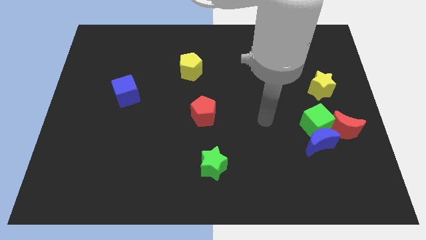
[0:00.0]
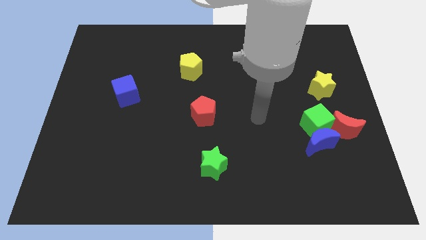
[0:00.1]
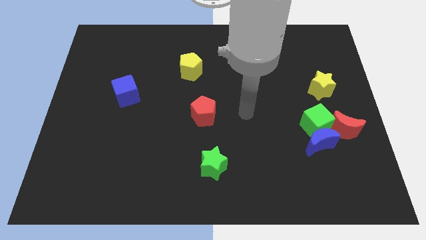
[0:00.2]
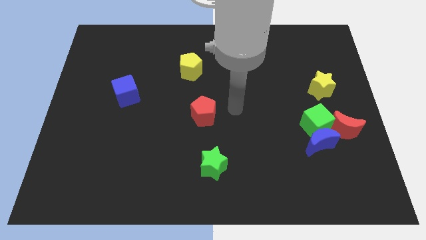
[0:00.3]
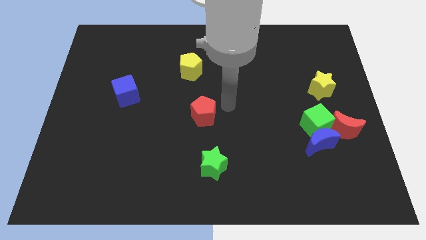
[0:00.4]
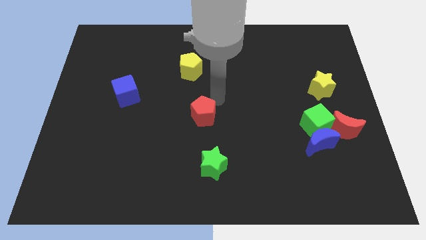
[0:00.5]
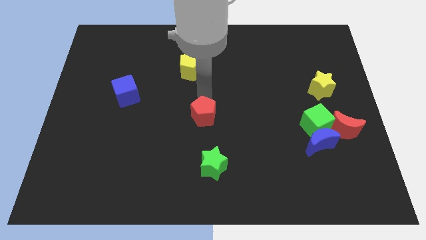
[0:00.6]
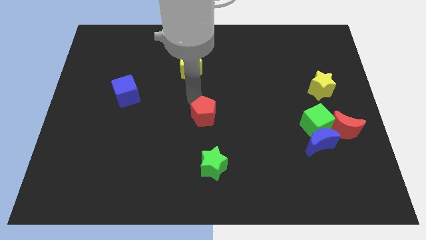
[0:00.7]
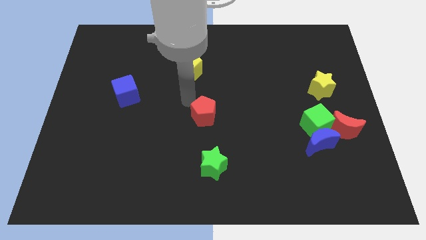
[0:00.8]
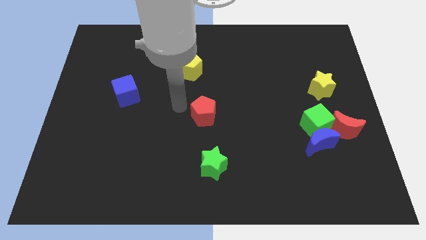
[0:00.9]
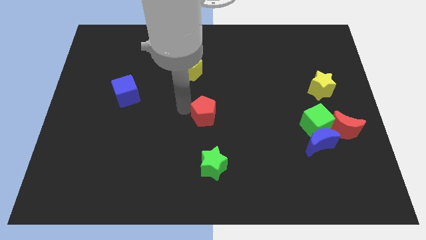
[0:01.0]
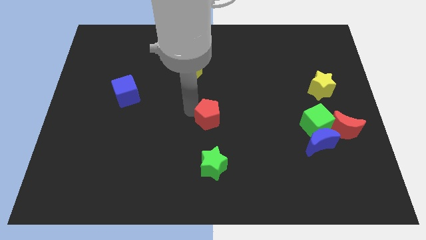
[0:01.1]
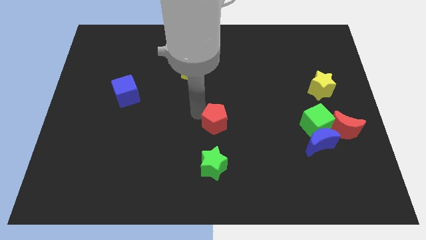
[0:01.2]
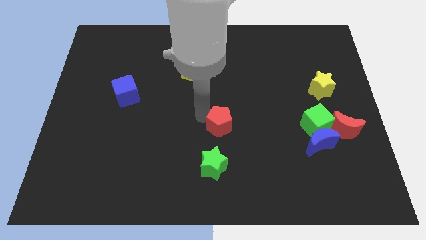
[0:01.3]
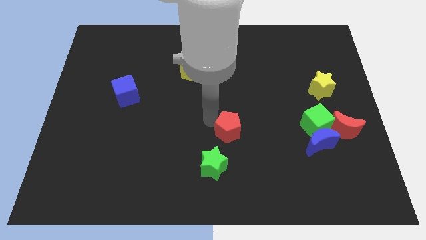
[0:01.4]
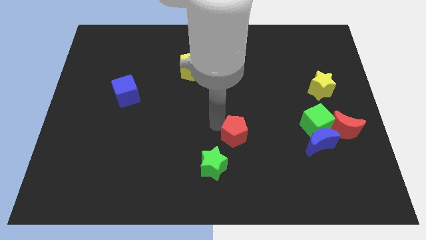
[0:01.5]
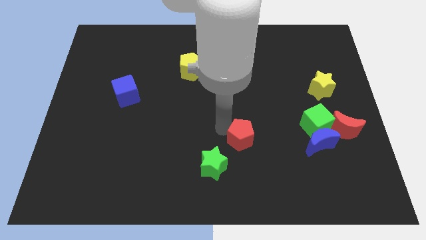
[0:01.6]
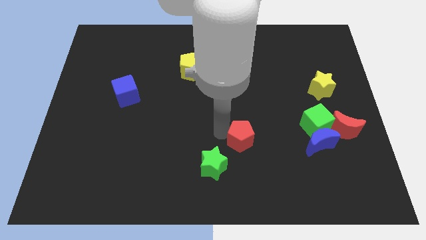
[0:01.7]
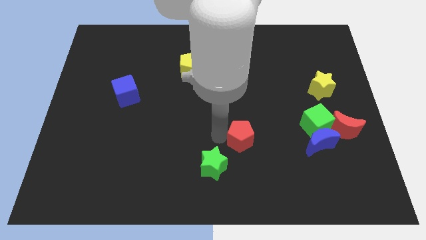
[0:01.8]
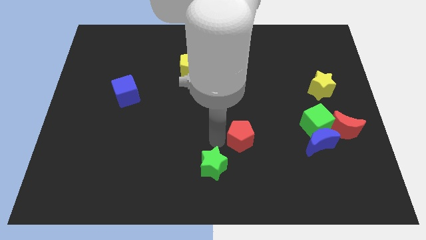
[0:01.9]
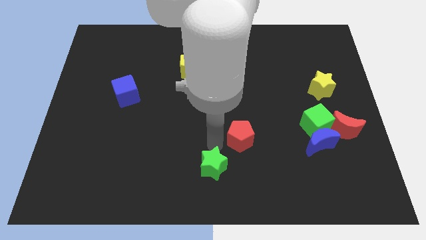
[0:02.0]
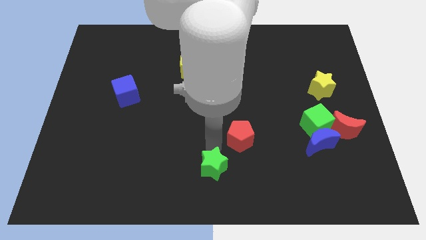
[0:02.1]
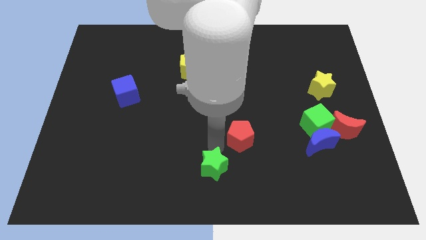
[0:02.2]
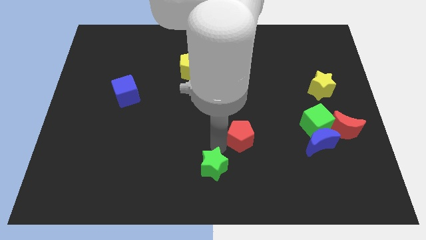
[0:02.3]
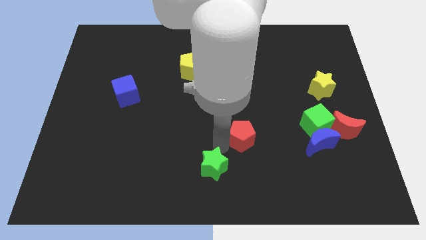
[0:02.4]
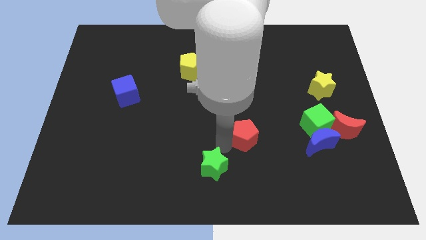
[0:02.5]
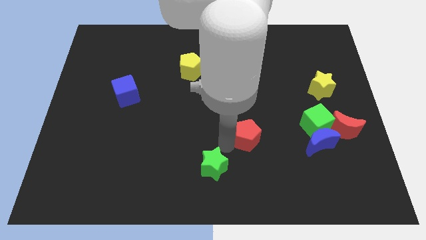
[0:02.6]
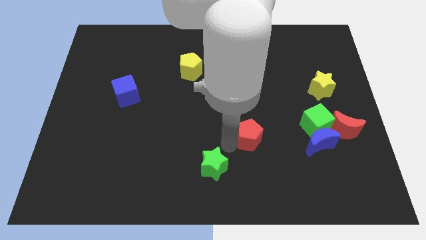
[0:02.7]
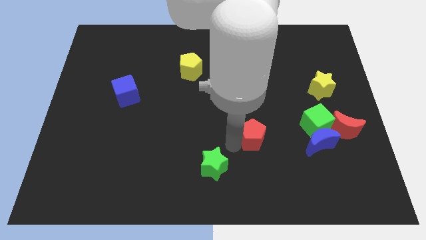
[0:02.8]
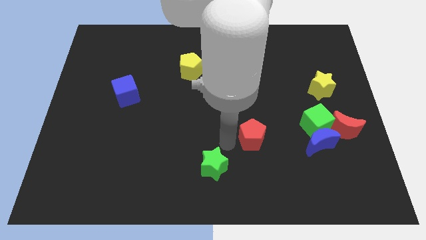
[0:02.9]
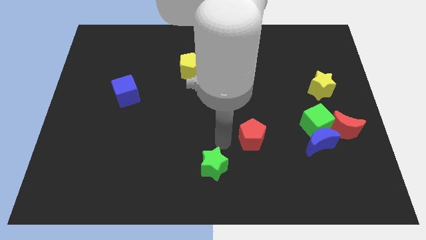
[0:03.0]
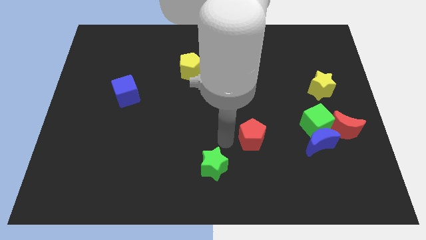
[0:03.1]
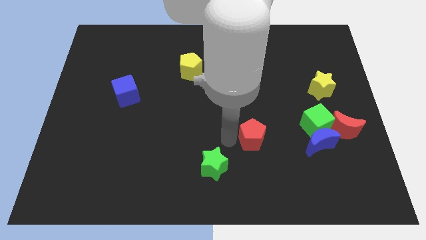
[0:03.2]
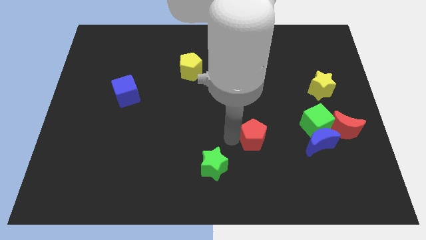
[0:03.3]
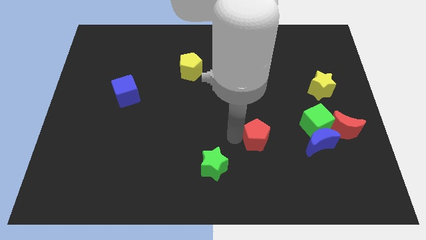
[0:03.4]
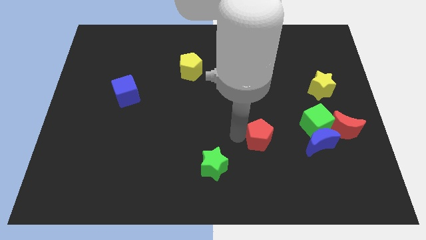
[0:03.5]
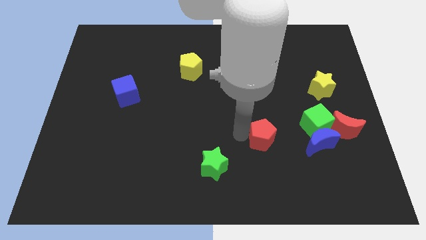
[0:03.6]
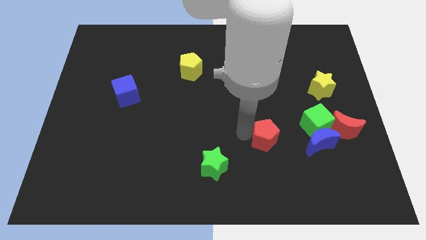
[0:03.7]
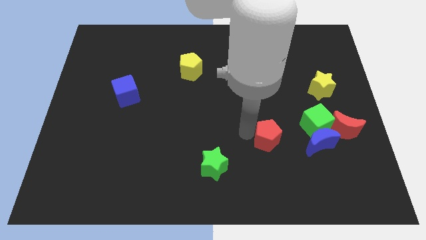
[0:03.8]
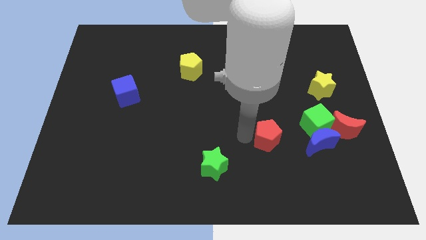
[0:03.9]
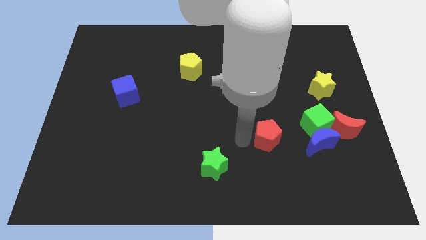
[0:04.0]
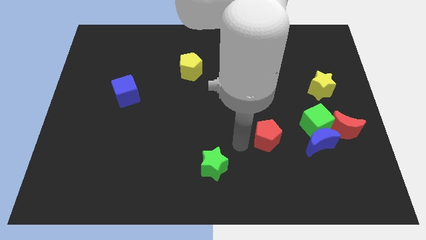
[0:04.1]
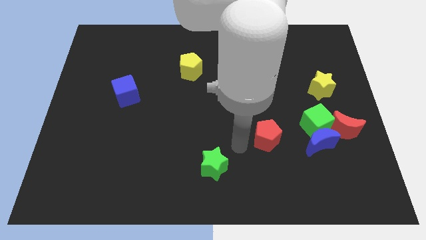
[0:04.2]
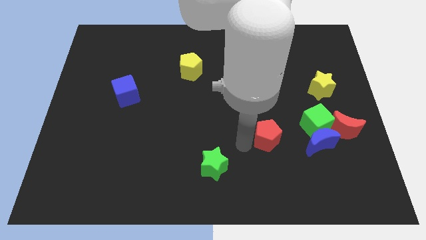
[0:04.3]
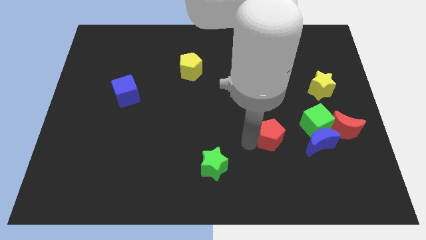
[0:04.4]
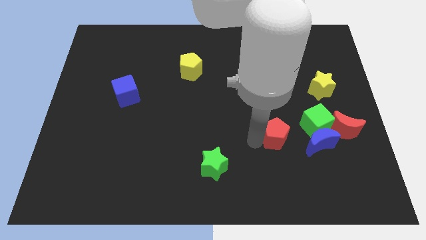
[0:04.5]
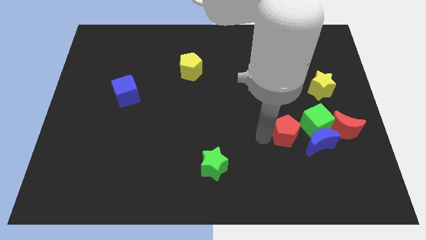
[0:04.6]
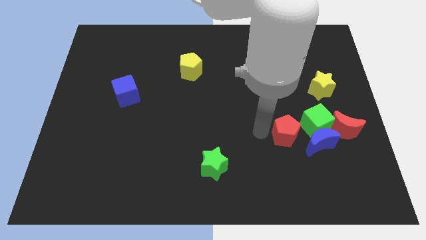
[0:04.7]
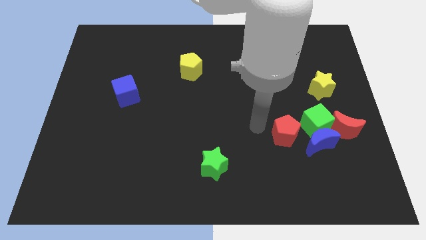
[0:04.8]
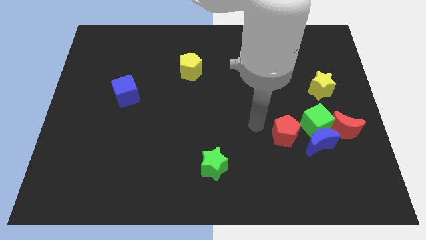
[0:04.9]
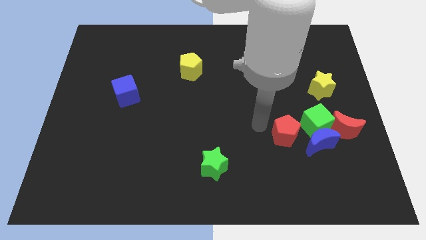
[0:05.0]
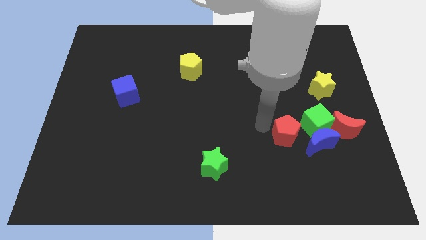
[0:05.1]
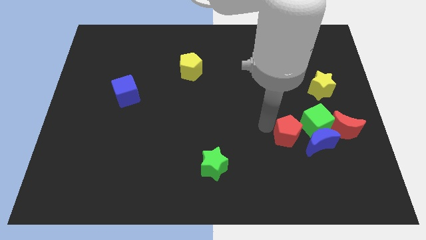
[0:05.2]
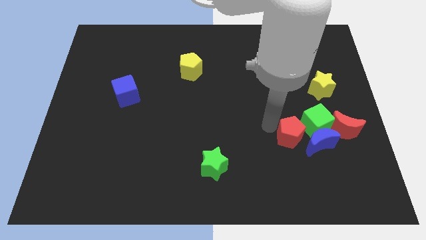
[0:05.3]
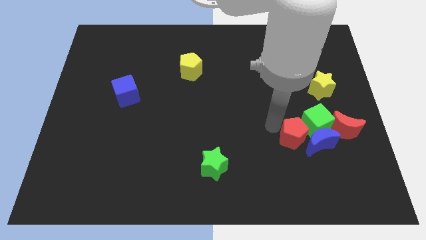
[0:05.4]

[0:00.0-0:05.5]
move the red pentagon close to the blue moon

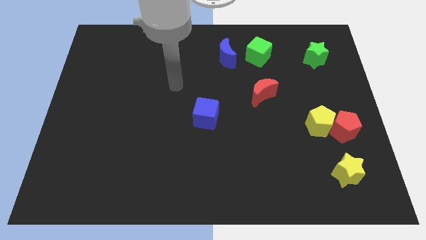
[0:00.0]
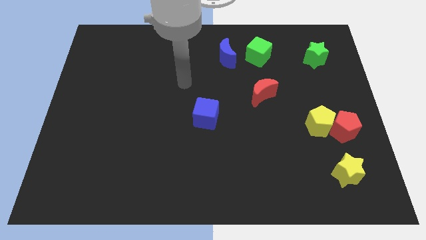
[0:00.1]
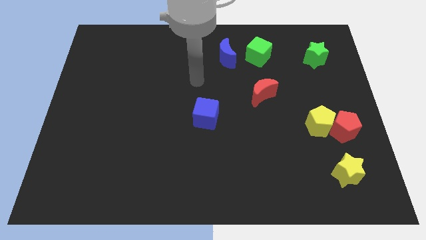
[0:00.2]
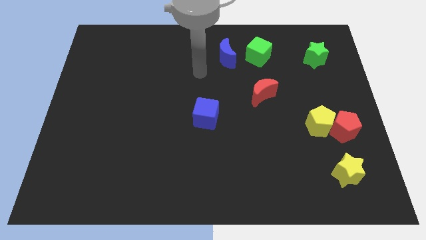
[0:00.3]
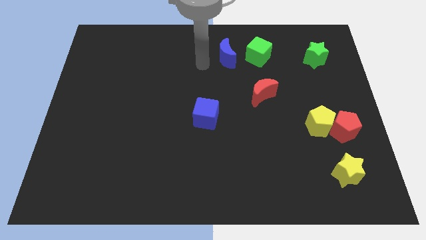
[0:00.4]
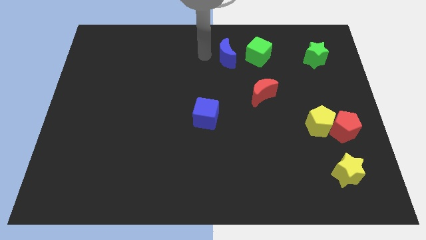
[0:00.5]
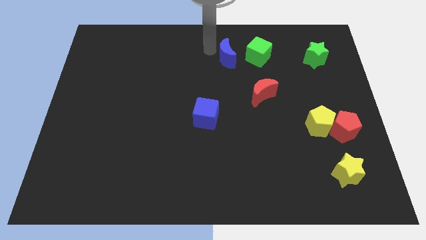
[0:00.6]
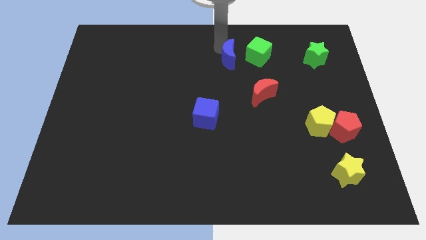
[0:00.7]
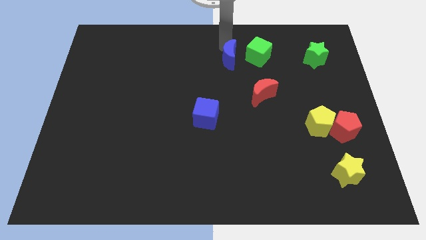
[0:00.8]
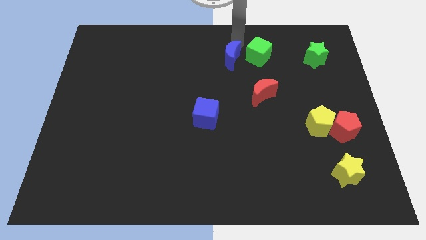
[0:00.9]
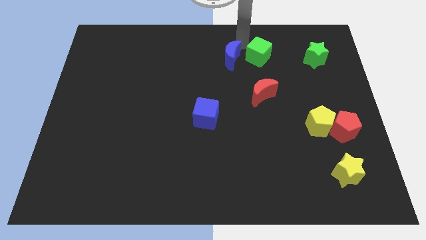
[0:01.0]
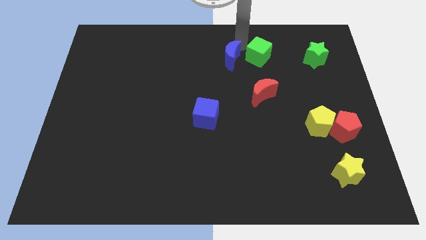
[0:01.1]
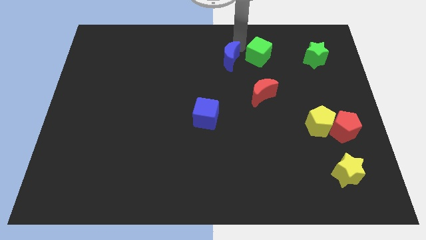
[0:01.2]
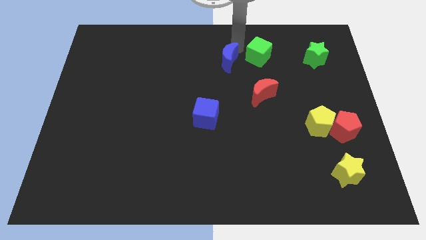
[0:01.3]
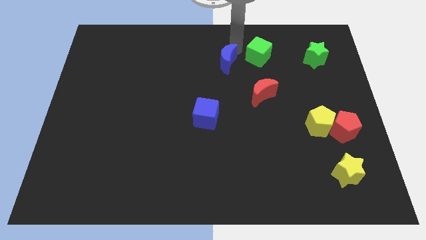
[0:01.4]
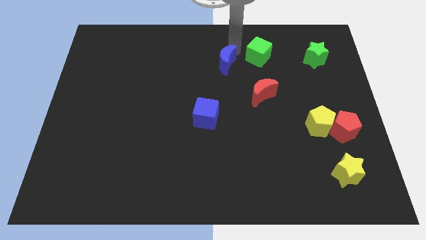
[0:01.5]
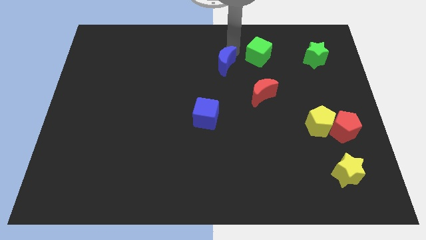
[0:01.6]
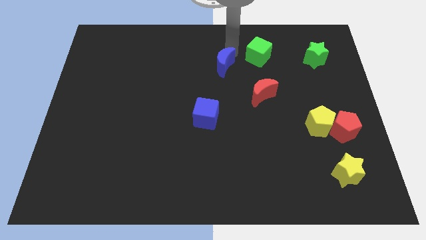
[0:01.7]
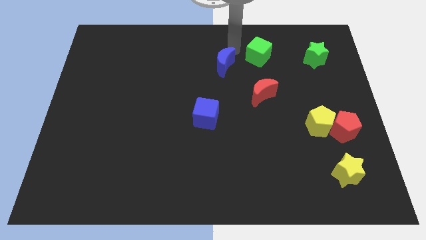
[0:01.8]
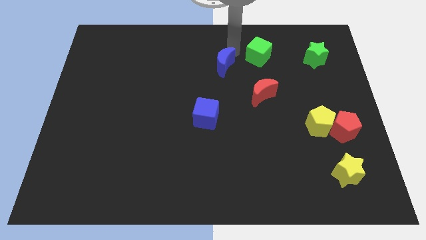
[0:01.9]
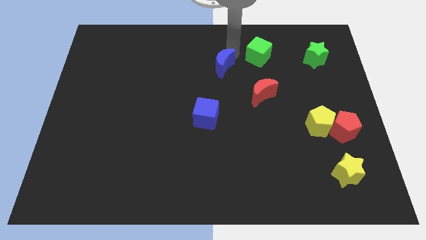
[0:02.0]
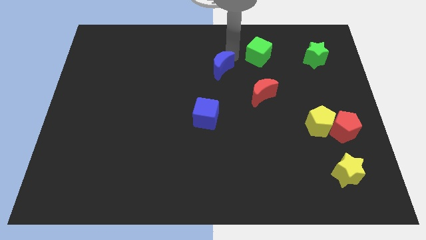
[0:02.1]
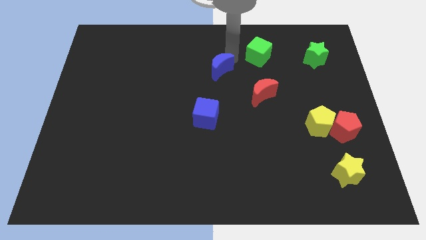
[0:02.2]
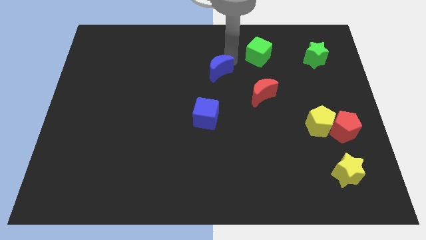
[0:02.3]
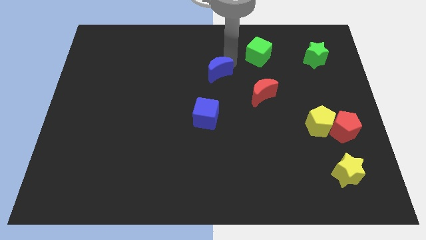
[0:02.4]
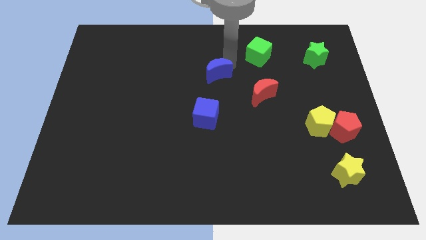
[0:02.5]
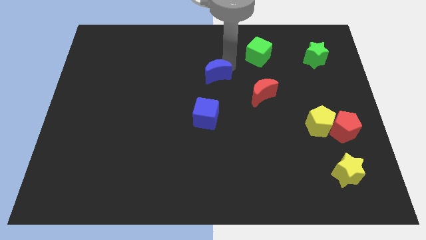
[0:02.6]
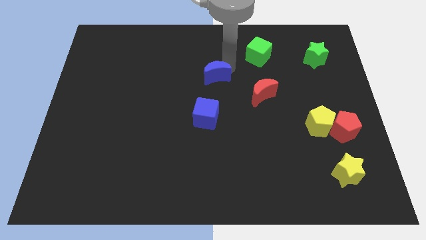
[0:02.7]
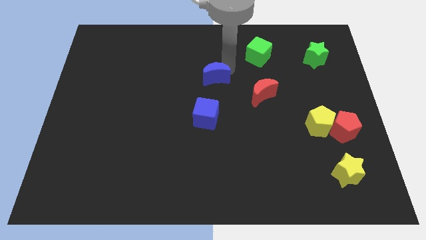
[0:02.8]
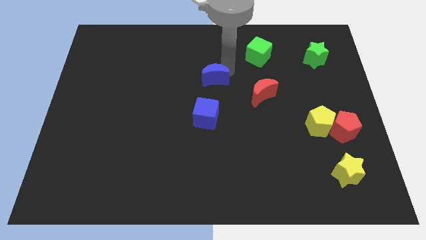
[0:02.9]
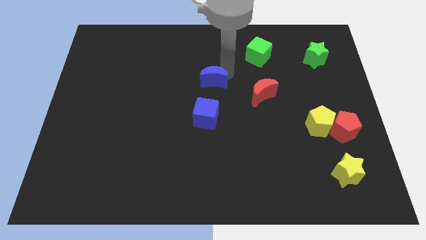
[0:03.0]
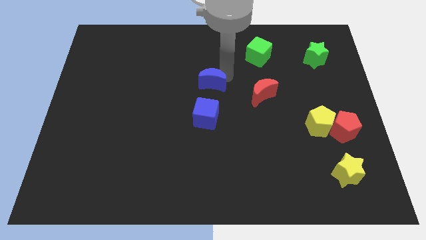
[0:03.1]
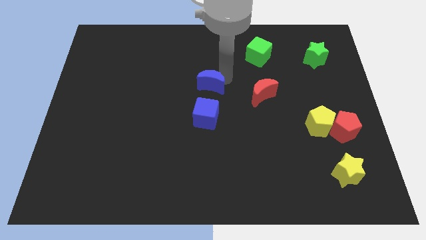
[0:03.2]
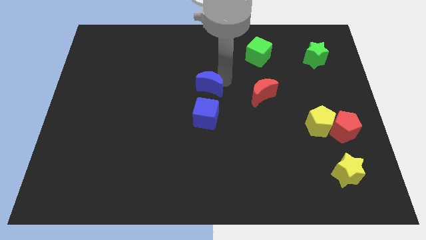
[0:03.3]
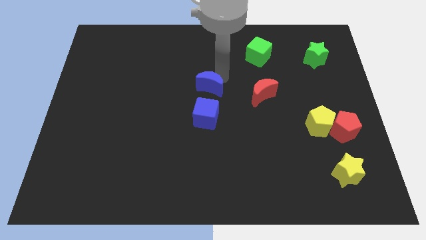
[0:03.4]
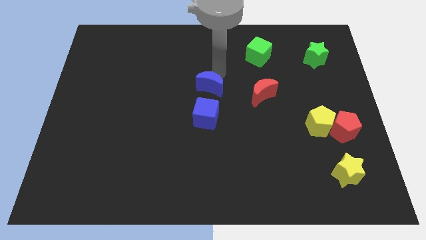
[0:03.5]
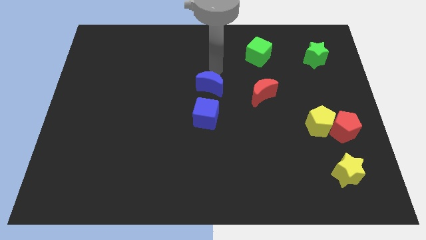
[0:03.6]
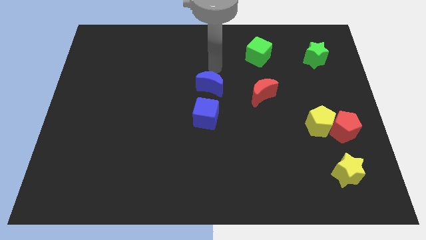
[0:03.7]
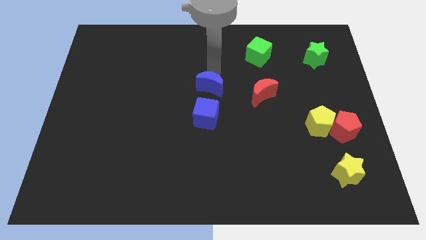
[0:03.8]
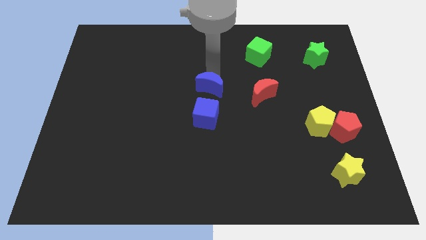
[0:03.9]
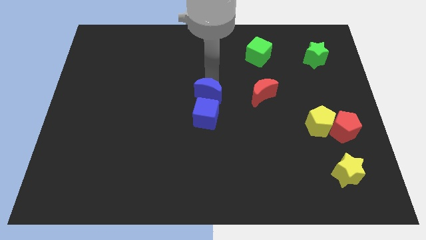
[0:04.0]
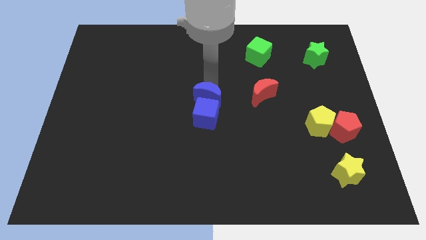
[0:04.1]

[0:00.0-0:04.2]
push the blue moon close to the blue cube
